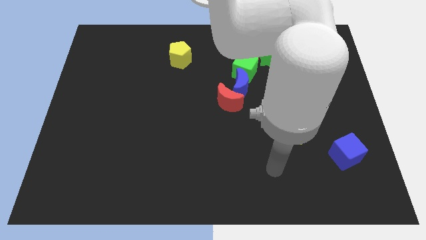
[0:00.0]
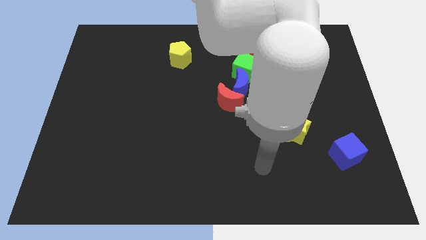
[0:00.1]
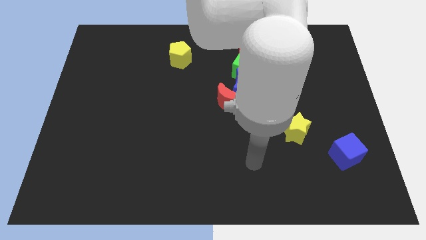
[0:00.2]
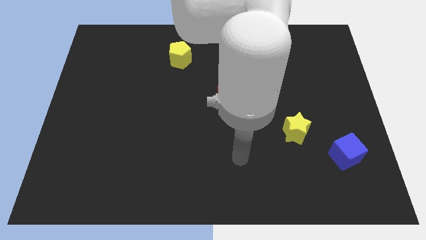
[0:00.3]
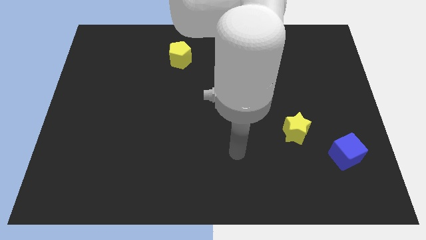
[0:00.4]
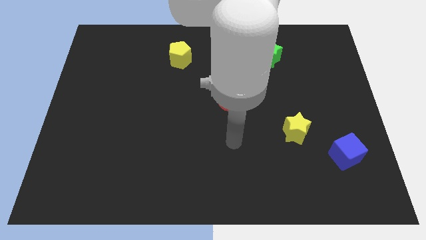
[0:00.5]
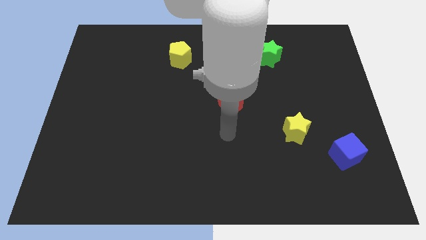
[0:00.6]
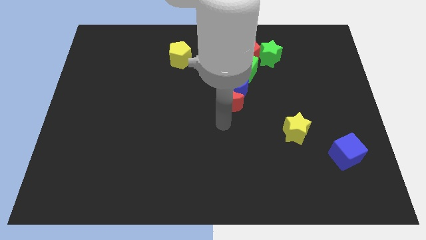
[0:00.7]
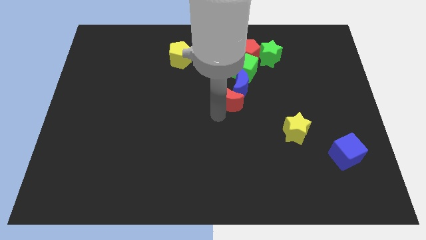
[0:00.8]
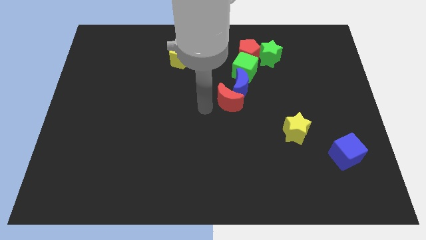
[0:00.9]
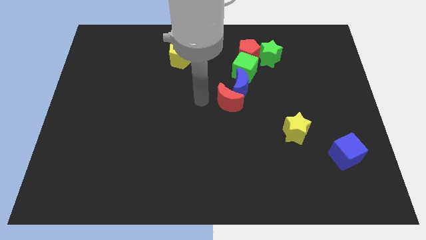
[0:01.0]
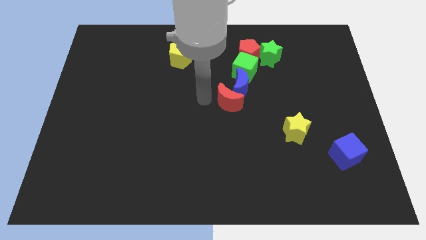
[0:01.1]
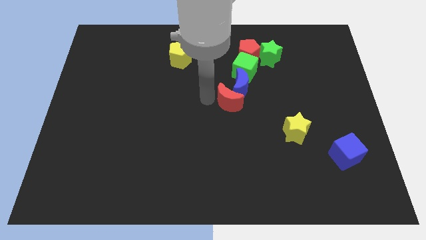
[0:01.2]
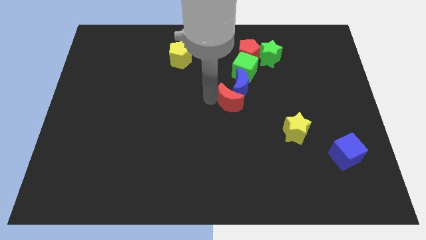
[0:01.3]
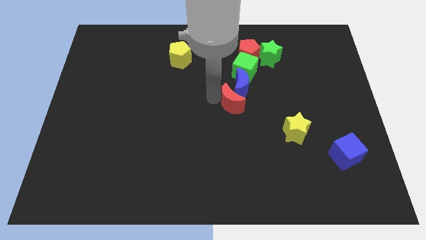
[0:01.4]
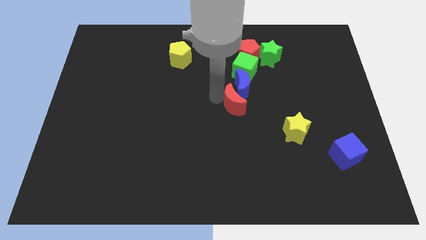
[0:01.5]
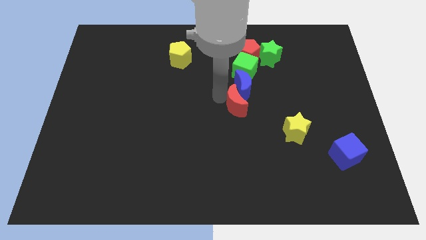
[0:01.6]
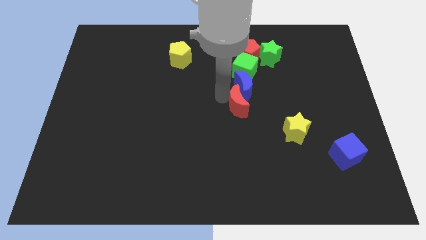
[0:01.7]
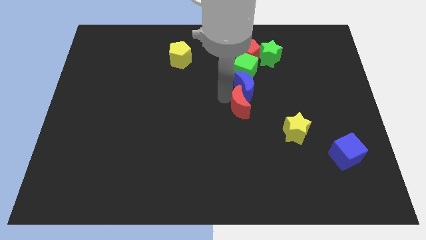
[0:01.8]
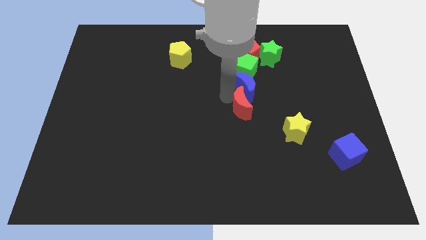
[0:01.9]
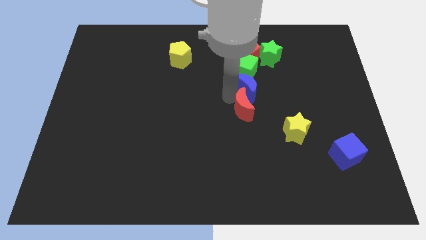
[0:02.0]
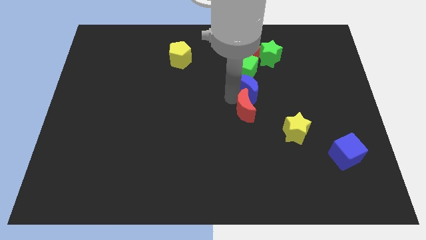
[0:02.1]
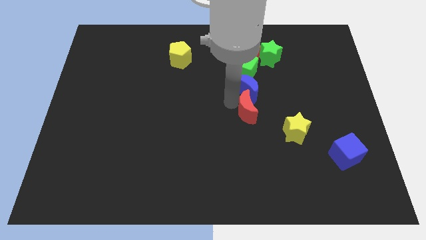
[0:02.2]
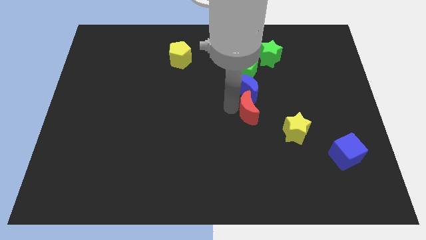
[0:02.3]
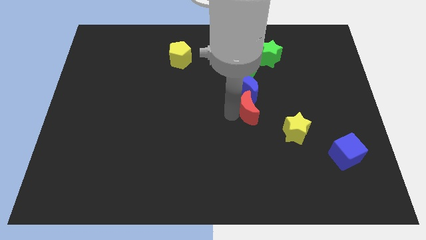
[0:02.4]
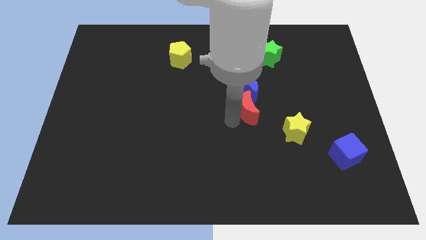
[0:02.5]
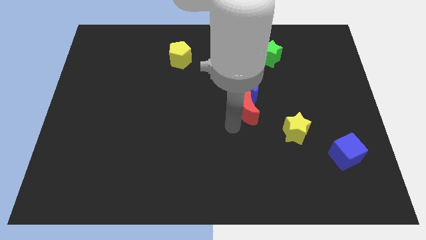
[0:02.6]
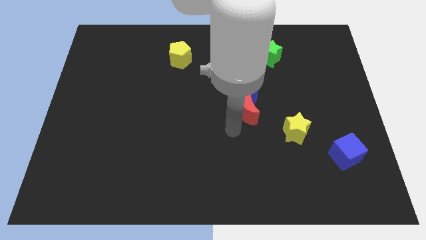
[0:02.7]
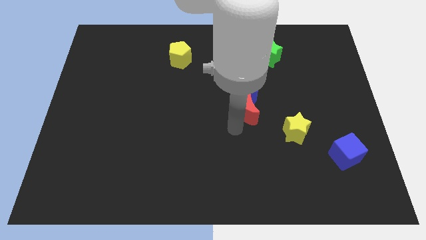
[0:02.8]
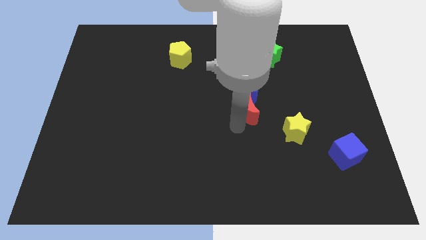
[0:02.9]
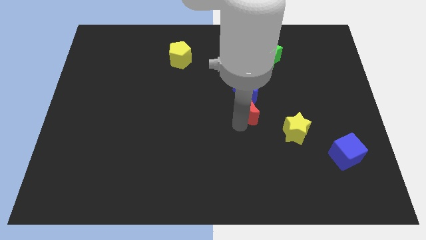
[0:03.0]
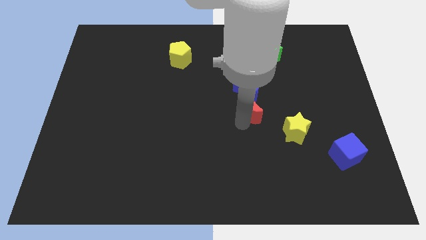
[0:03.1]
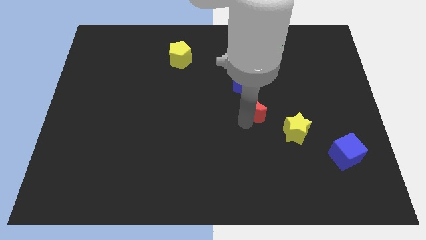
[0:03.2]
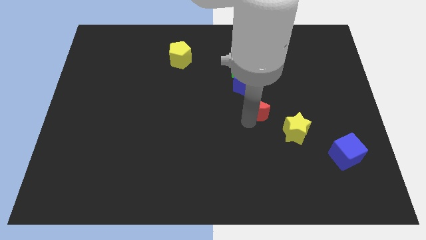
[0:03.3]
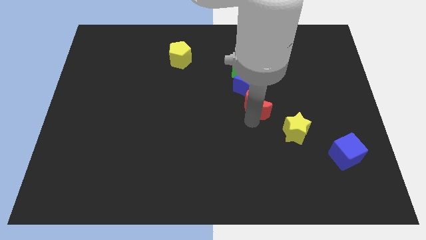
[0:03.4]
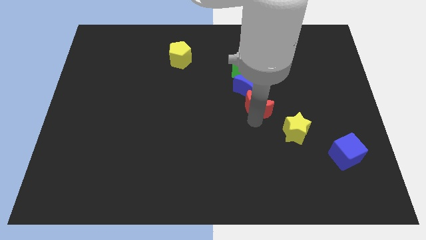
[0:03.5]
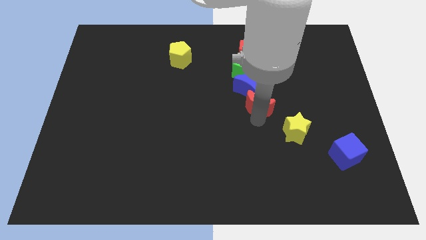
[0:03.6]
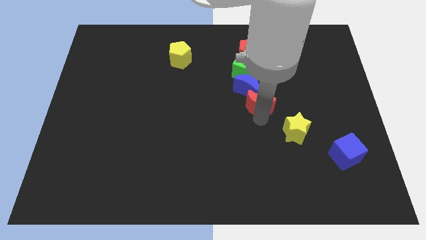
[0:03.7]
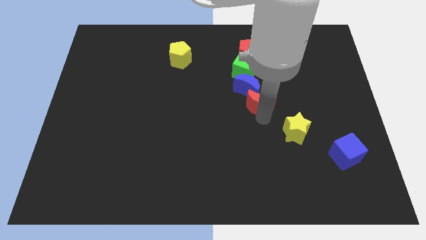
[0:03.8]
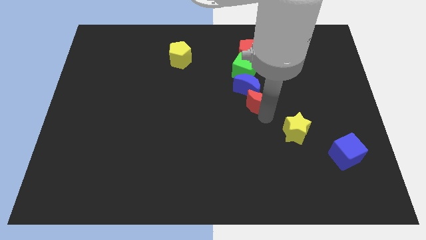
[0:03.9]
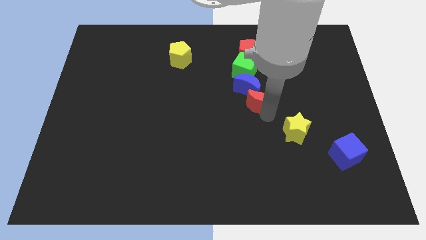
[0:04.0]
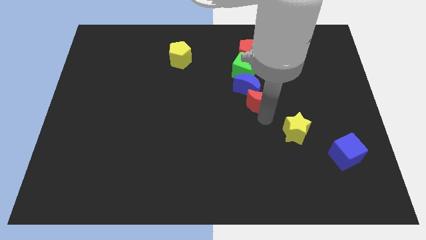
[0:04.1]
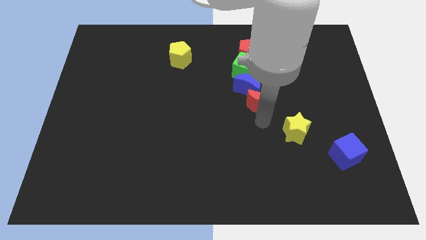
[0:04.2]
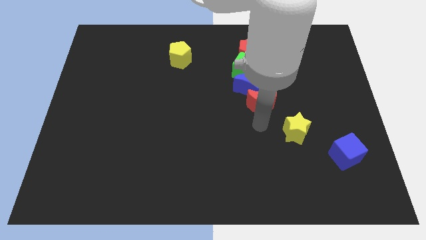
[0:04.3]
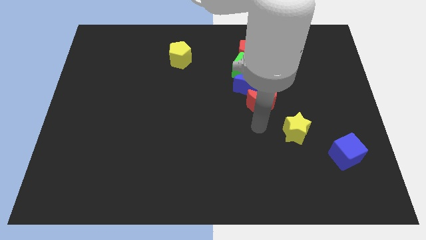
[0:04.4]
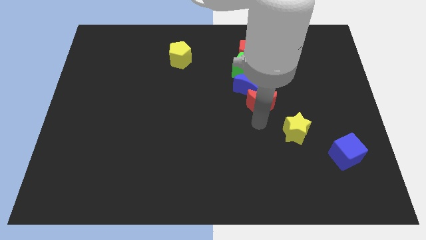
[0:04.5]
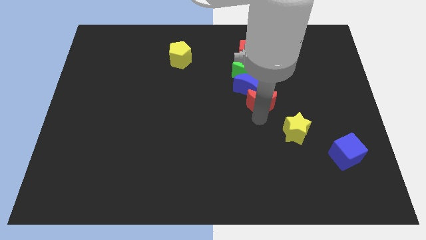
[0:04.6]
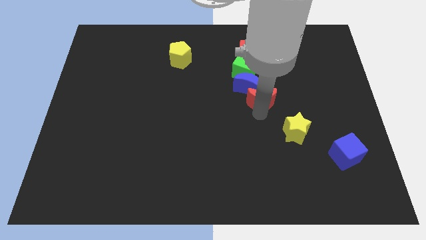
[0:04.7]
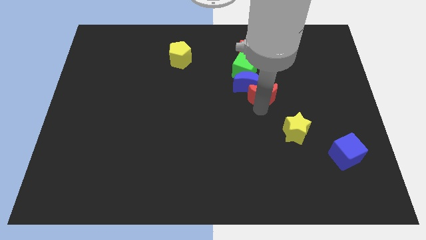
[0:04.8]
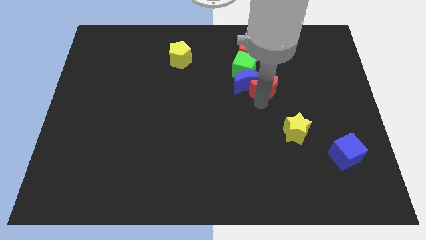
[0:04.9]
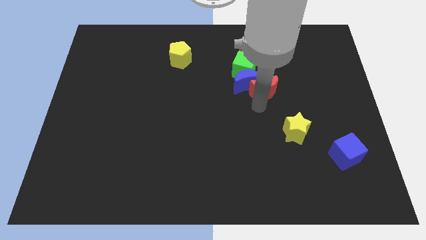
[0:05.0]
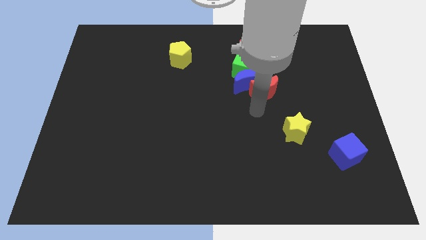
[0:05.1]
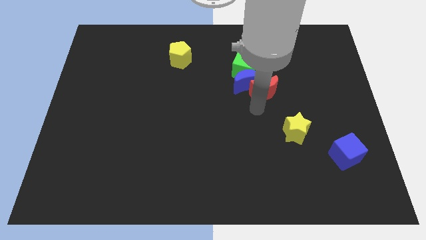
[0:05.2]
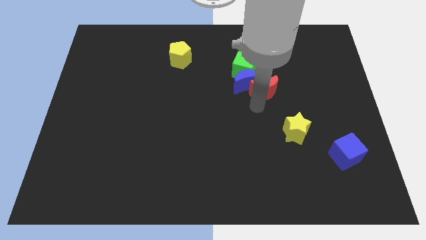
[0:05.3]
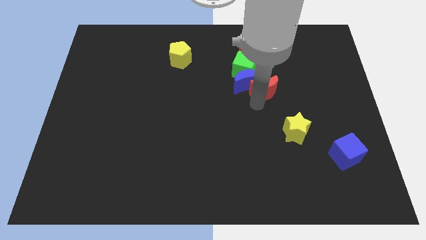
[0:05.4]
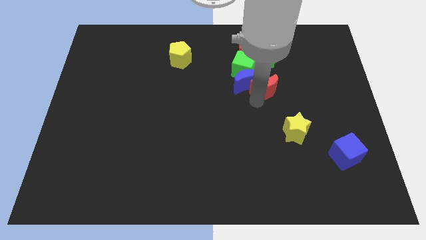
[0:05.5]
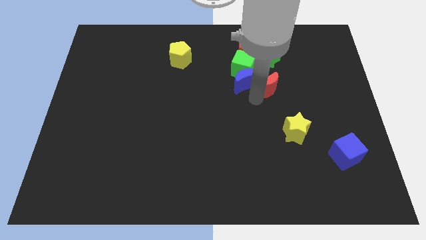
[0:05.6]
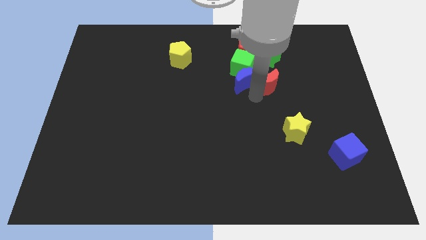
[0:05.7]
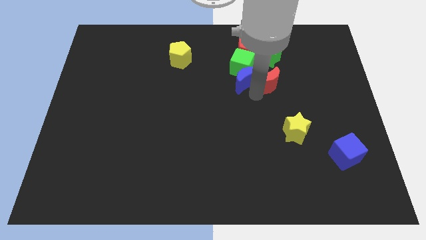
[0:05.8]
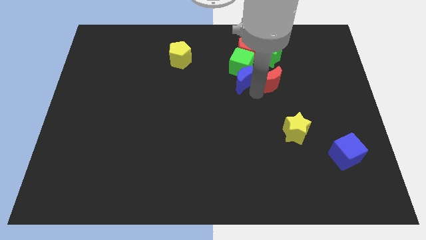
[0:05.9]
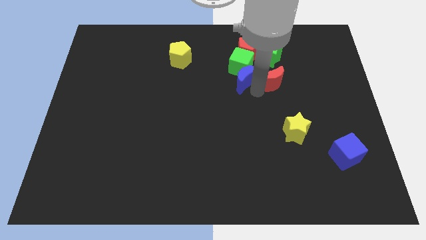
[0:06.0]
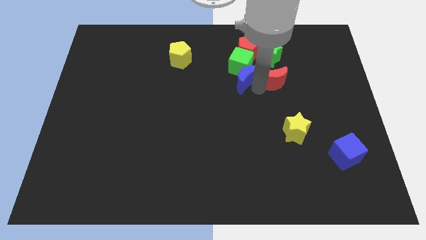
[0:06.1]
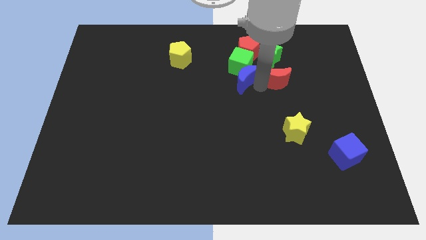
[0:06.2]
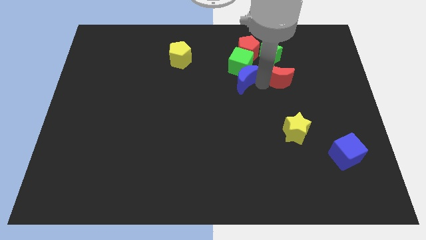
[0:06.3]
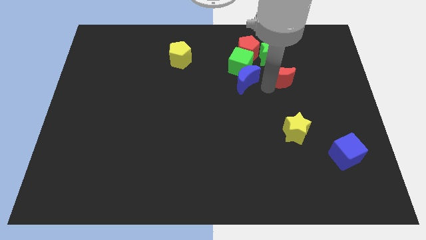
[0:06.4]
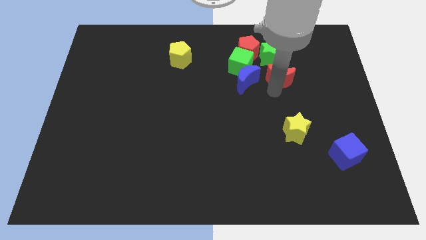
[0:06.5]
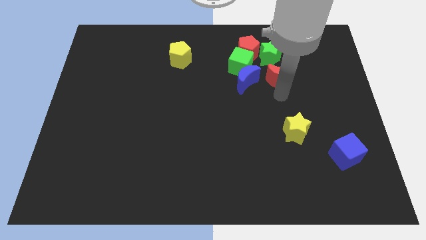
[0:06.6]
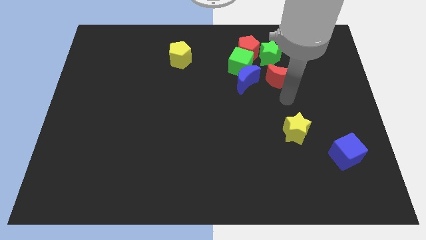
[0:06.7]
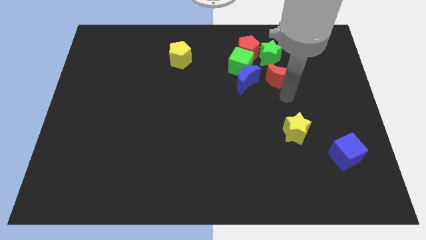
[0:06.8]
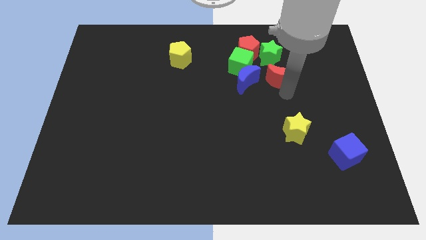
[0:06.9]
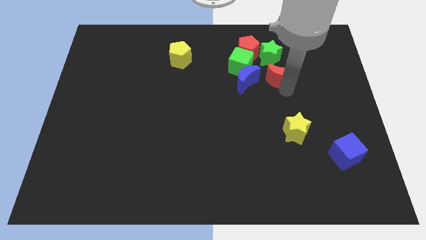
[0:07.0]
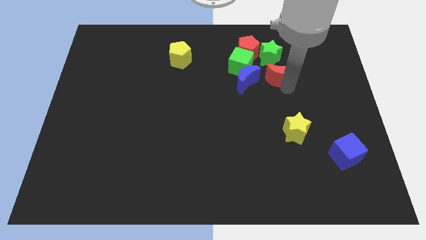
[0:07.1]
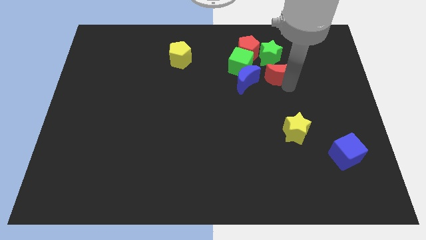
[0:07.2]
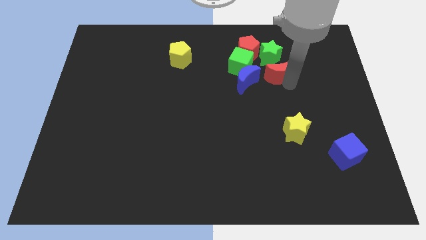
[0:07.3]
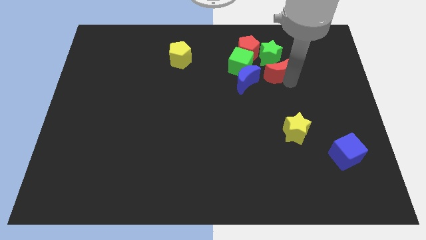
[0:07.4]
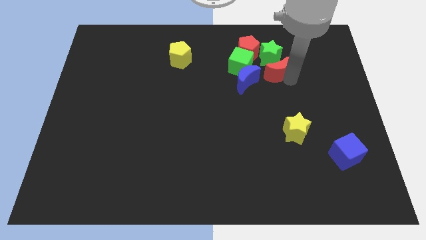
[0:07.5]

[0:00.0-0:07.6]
slide the red moon towards the green star

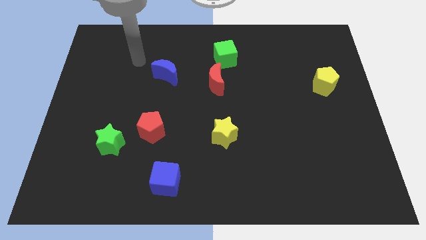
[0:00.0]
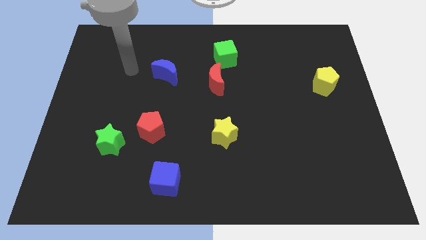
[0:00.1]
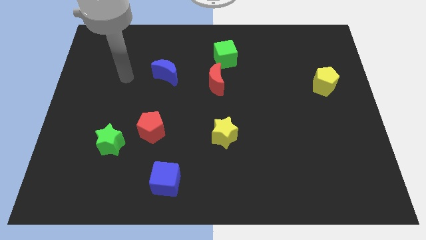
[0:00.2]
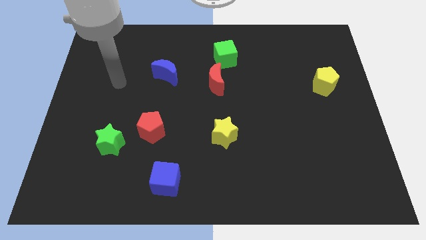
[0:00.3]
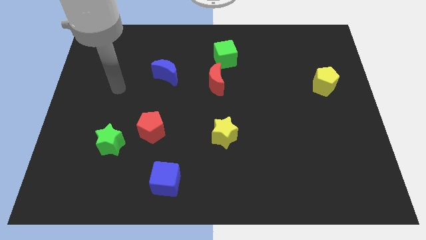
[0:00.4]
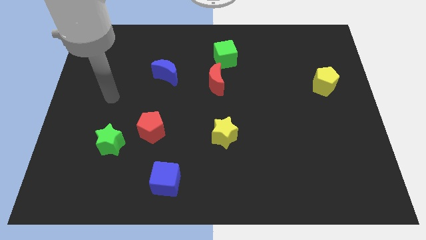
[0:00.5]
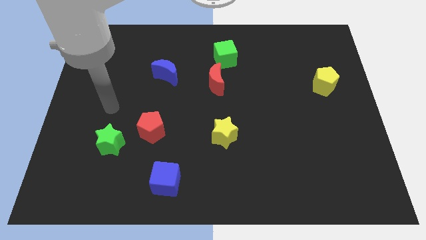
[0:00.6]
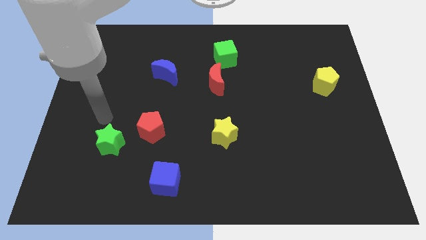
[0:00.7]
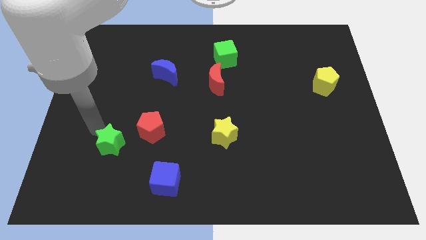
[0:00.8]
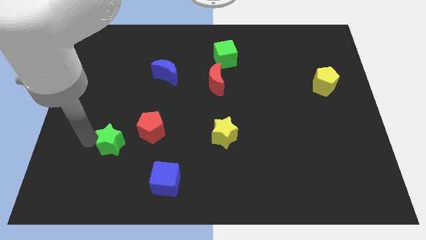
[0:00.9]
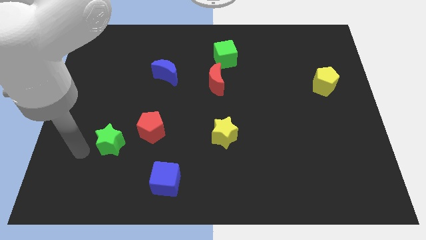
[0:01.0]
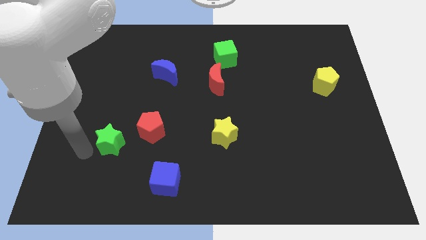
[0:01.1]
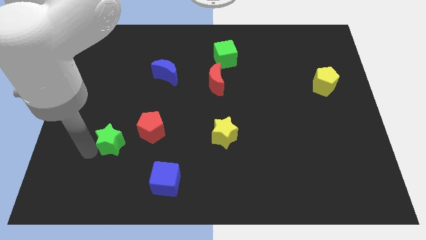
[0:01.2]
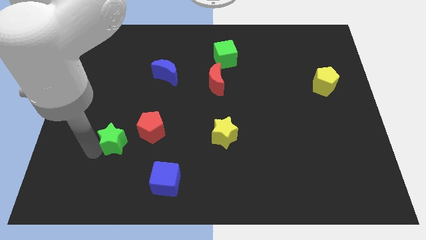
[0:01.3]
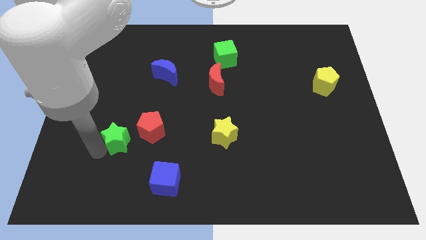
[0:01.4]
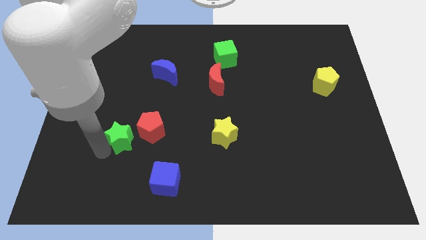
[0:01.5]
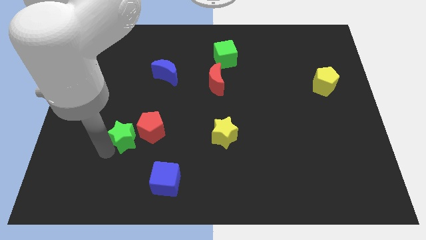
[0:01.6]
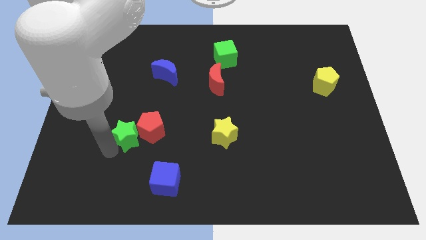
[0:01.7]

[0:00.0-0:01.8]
move the green star towards the red pentagon
